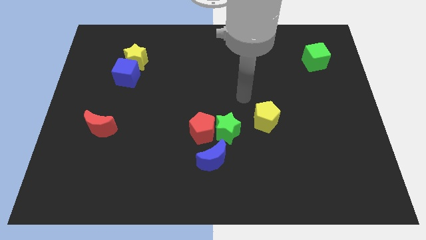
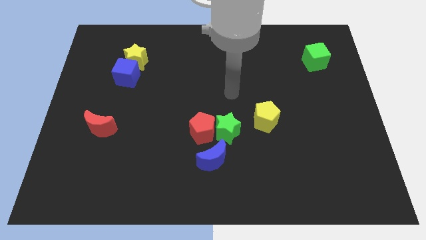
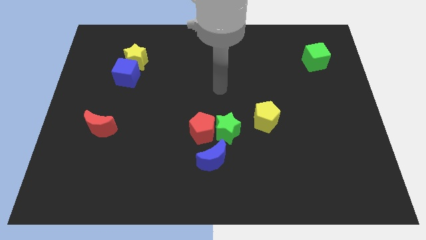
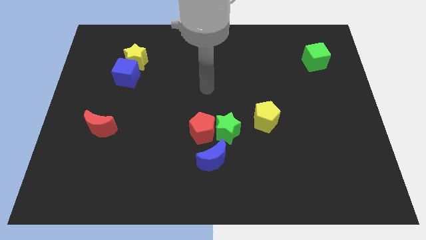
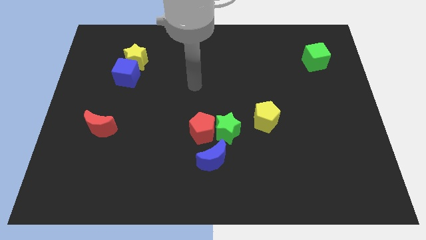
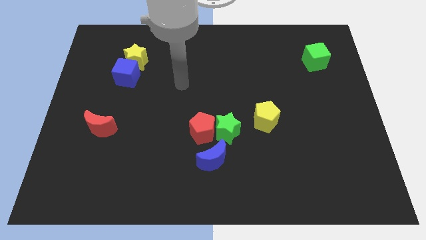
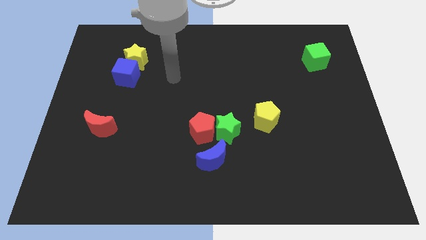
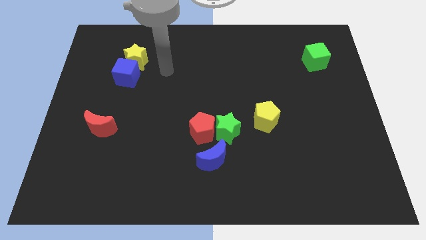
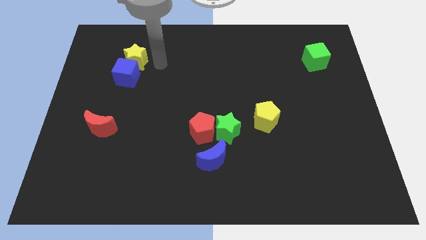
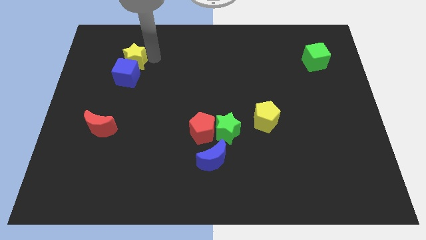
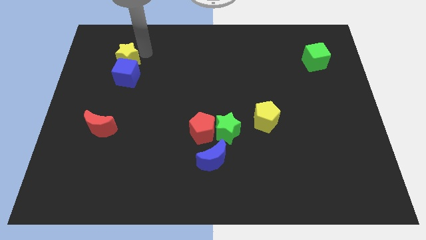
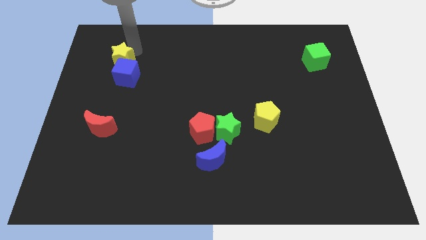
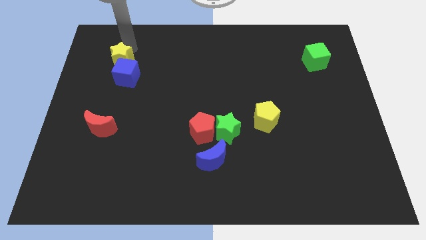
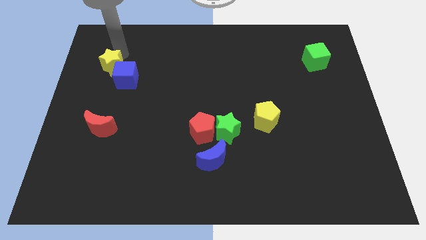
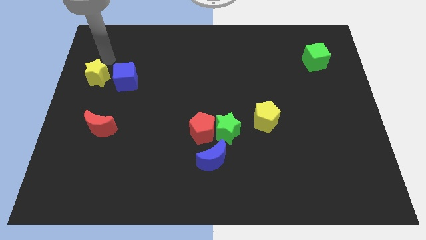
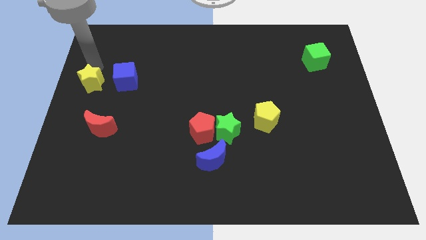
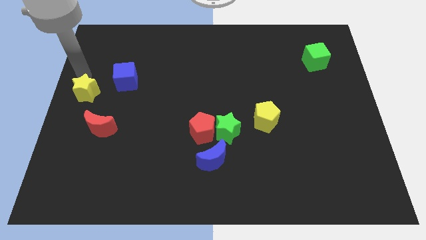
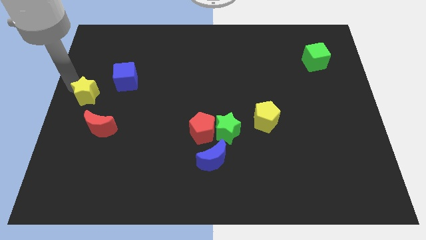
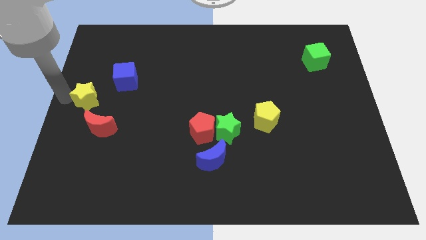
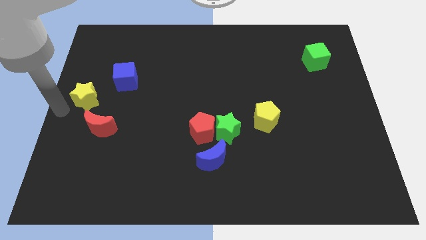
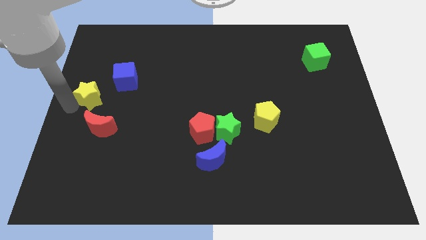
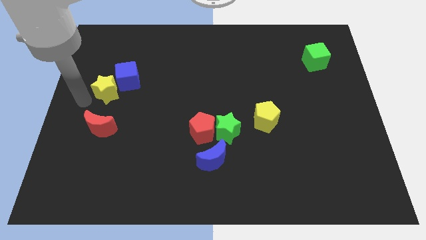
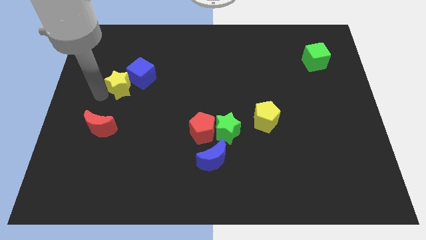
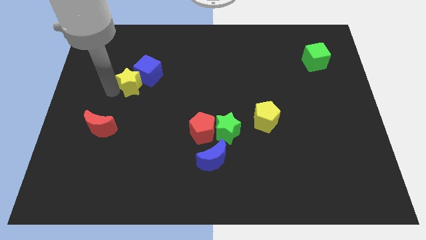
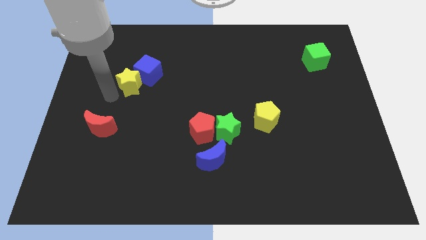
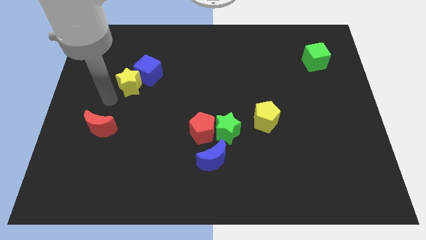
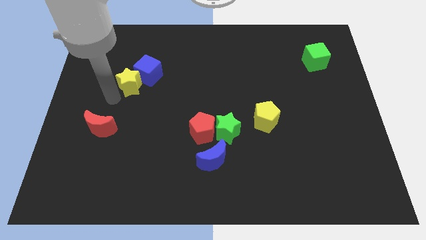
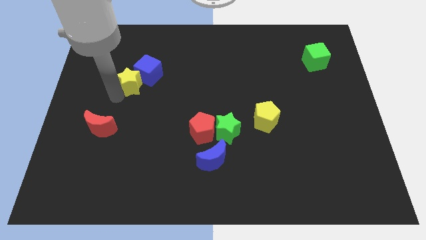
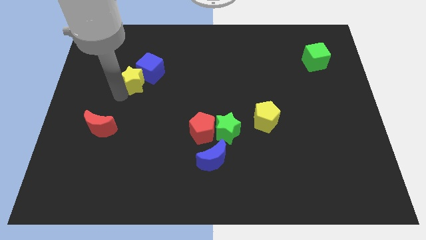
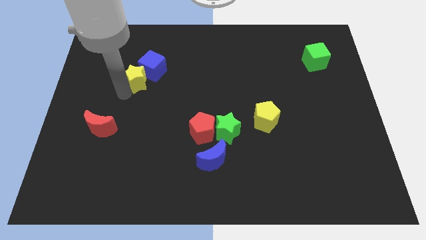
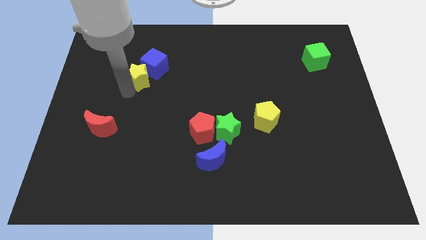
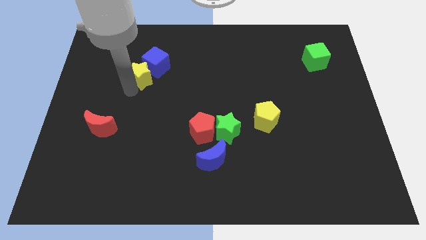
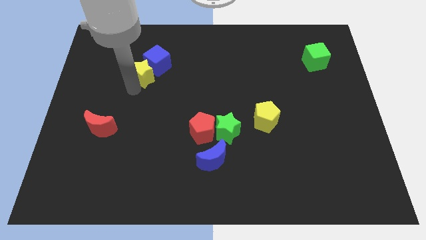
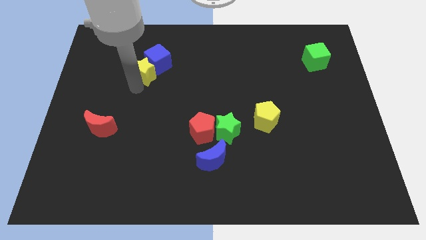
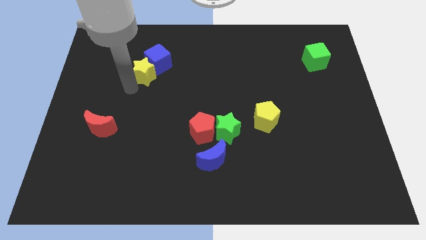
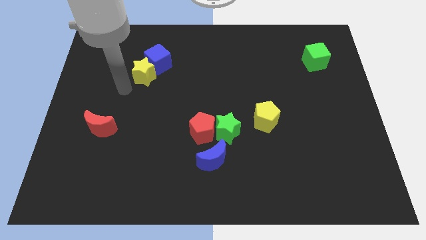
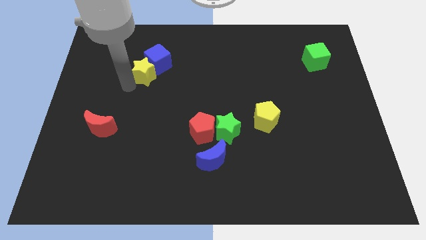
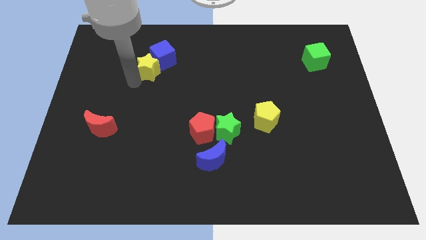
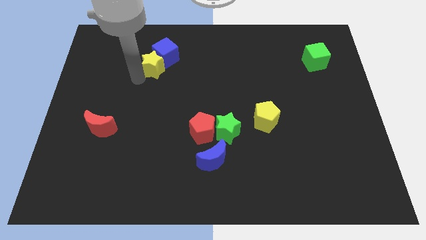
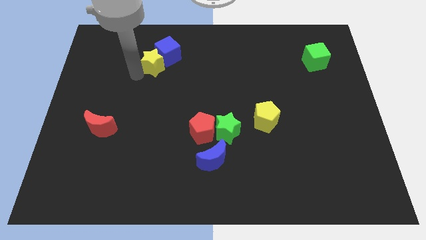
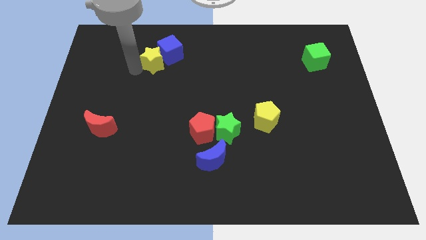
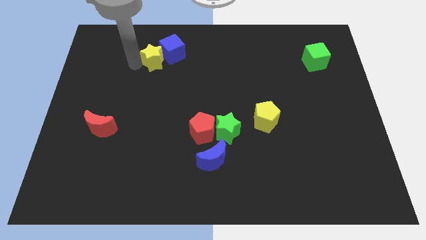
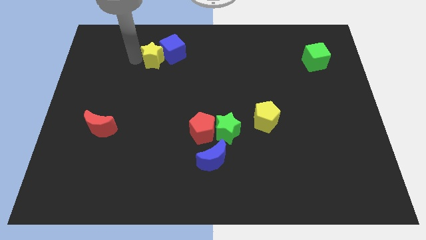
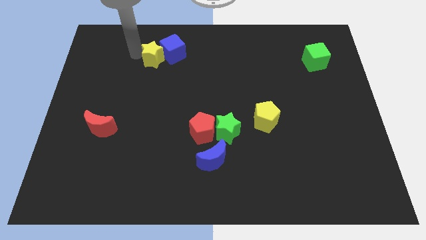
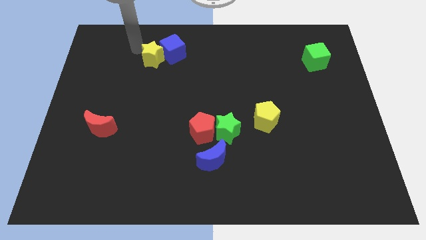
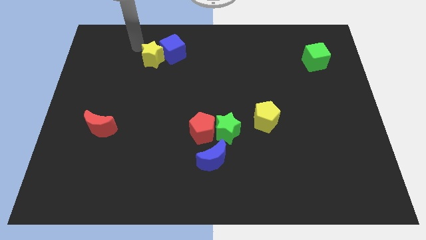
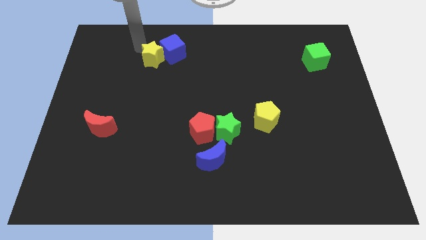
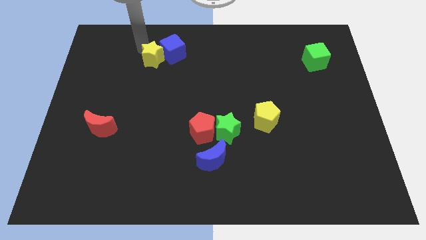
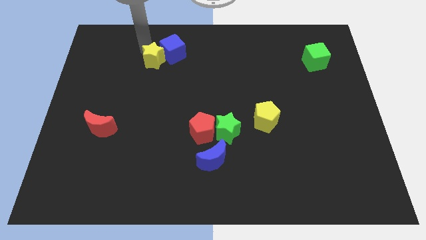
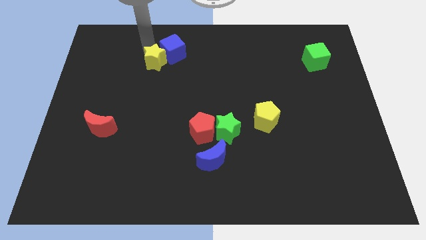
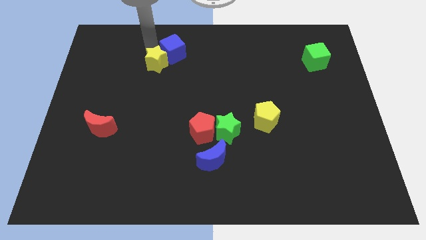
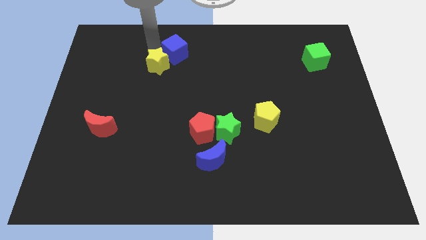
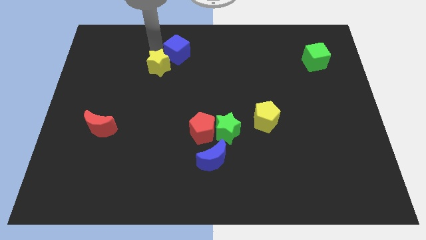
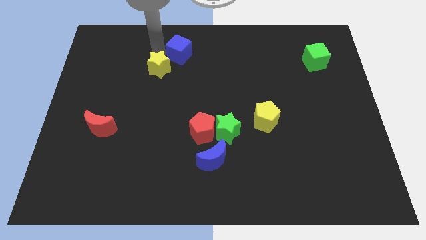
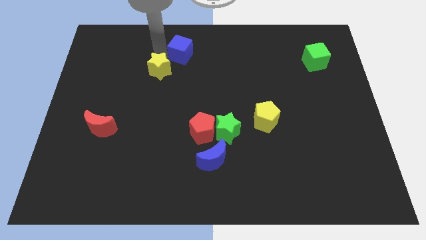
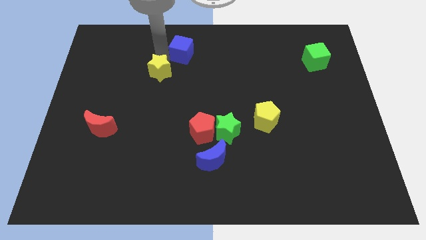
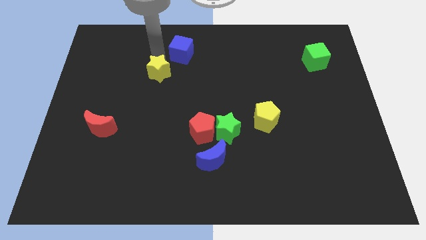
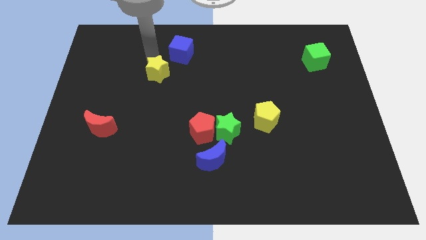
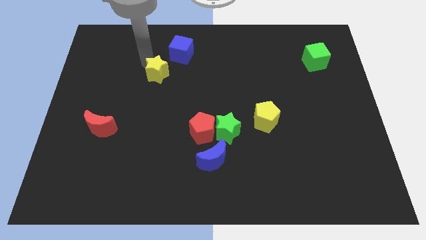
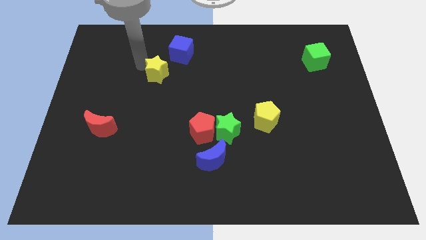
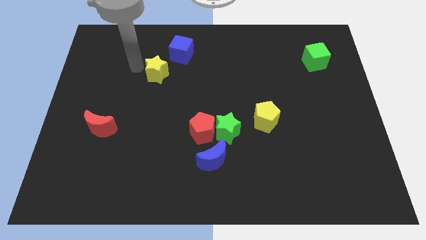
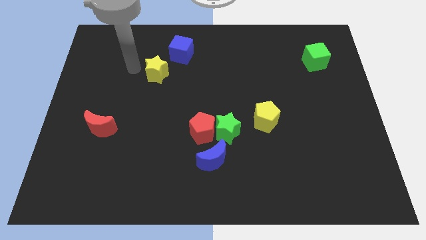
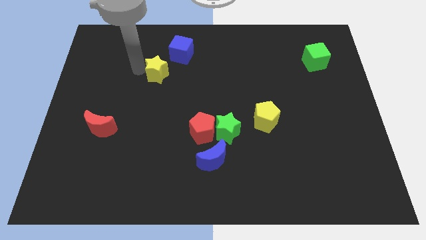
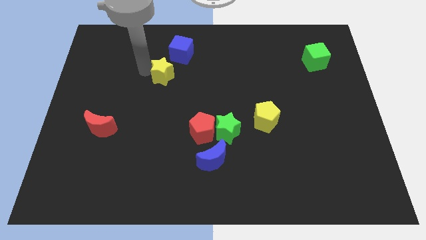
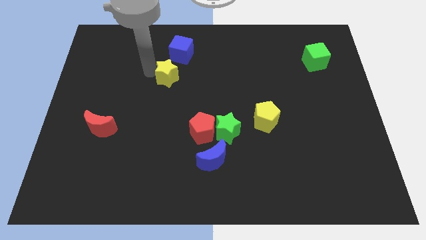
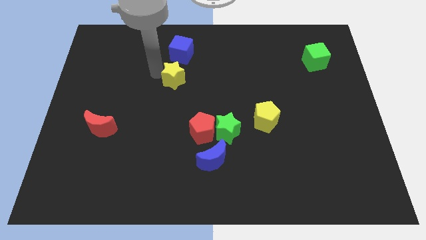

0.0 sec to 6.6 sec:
move the yellow star to the middle of the board

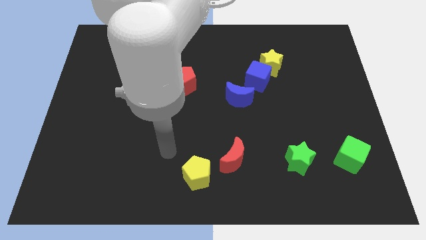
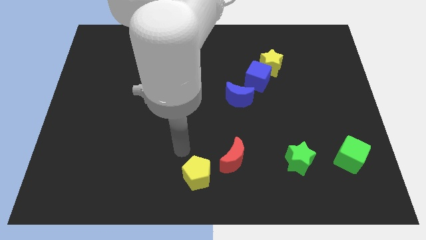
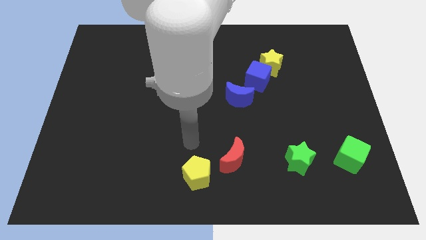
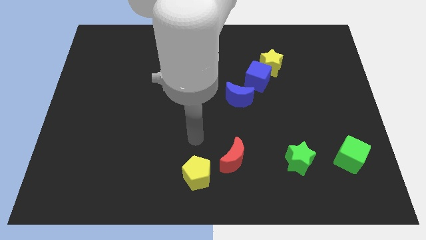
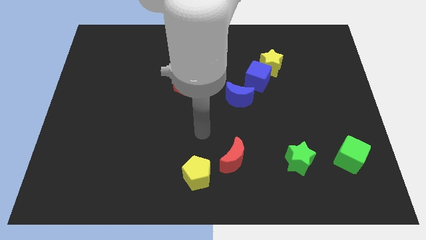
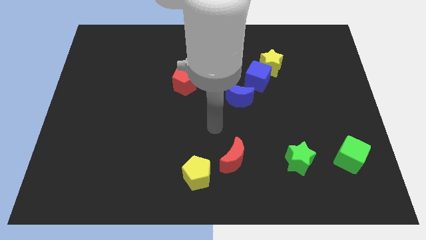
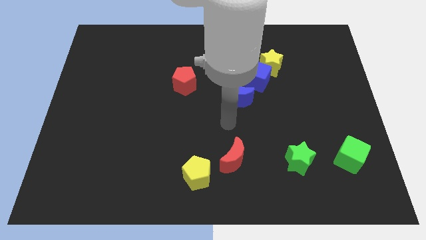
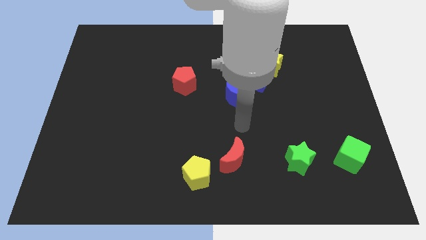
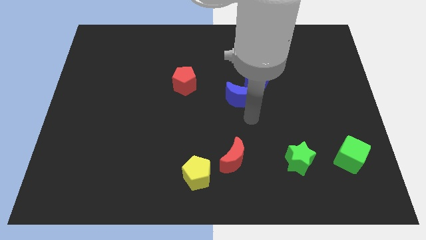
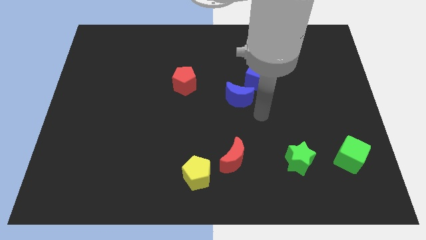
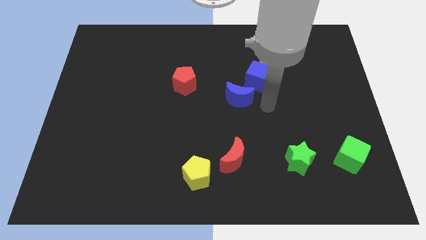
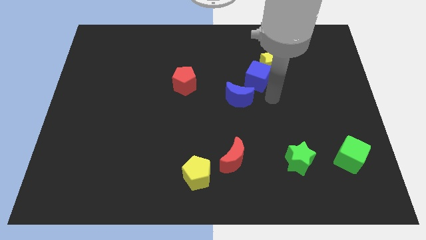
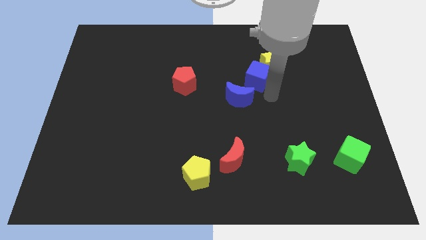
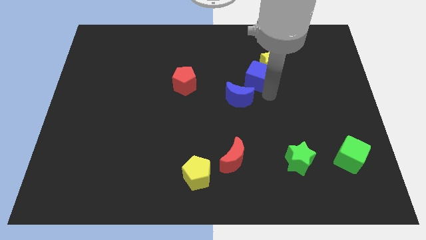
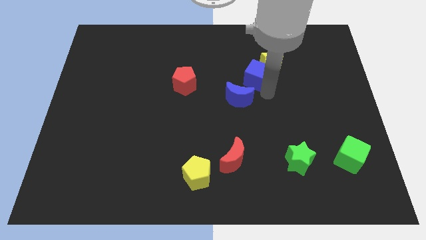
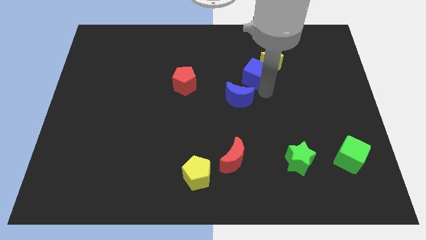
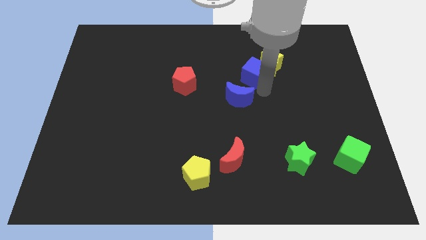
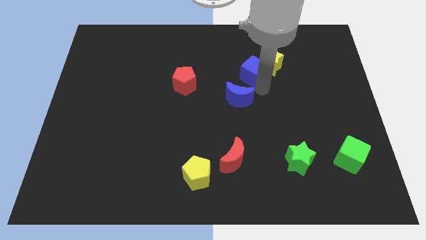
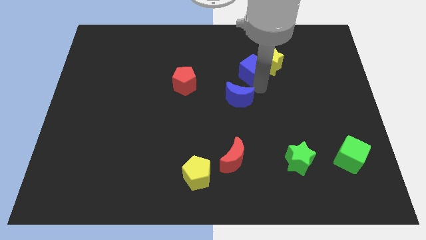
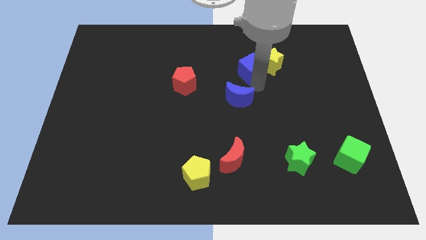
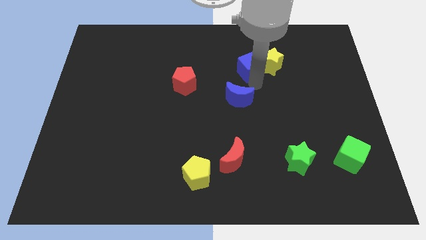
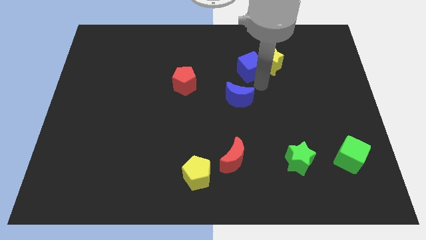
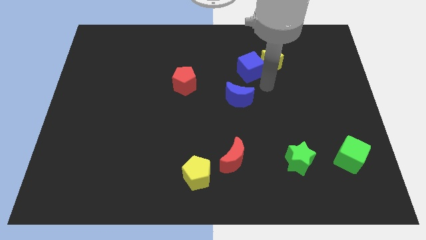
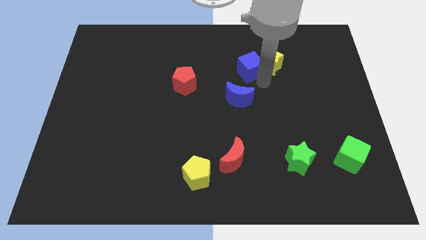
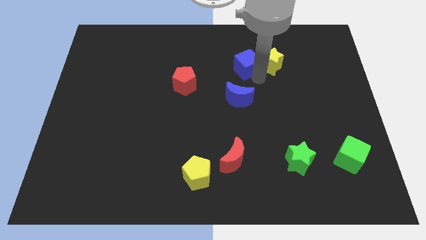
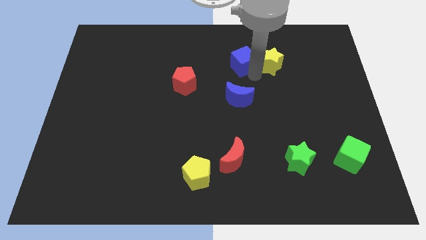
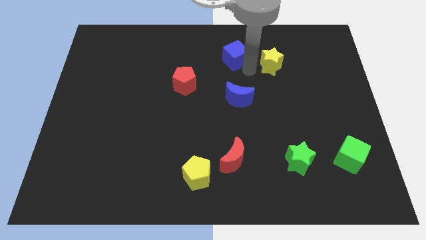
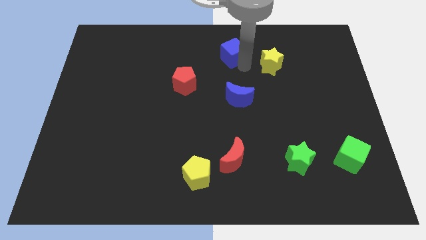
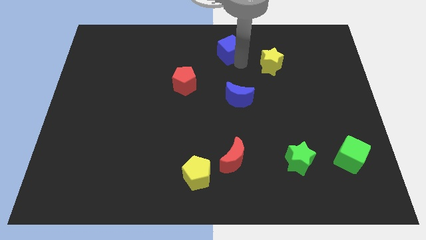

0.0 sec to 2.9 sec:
push the blue cube to the top side
